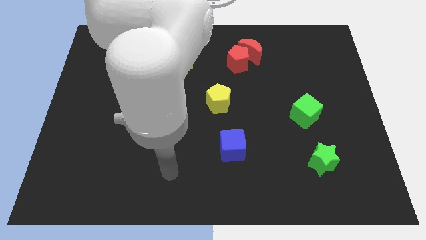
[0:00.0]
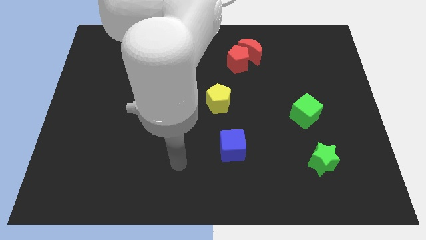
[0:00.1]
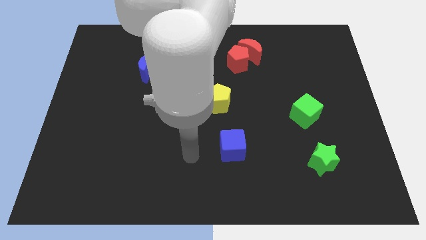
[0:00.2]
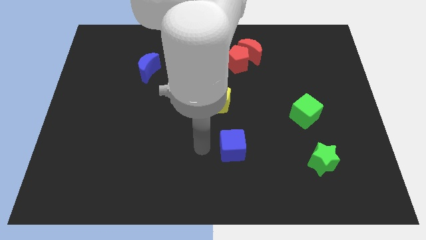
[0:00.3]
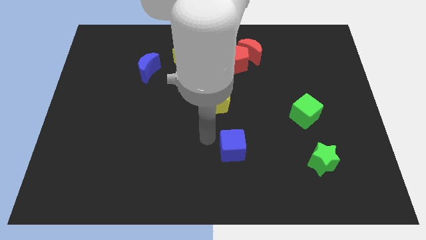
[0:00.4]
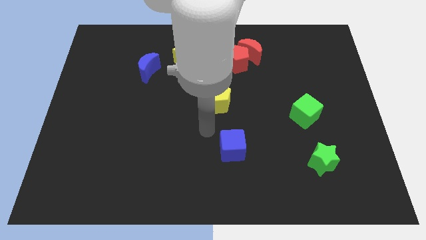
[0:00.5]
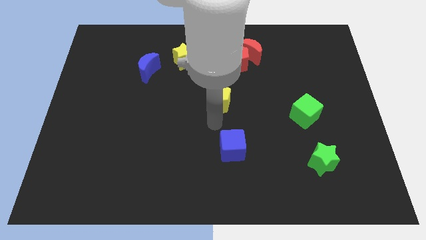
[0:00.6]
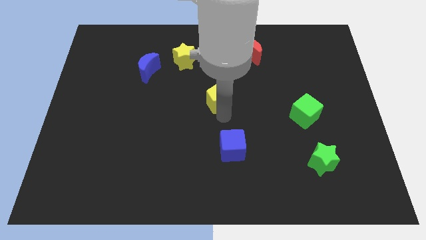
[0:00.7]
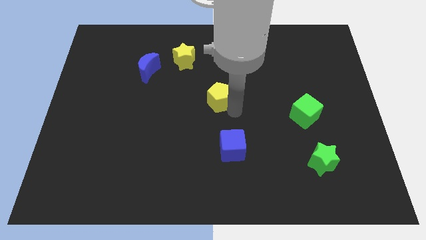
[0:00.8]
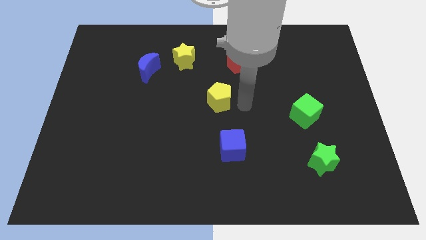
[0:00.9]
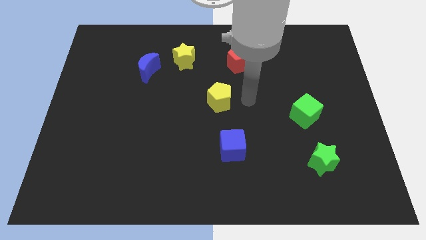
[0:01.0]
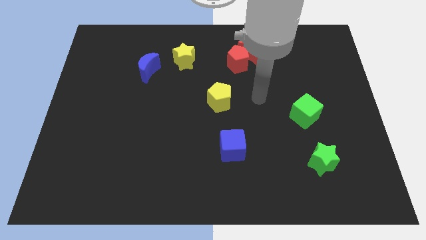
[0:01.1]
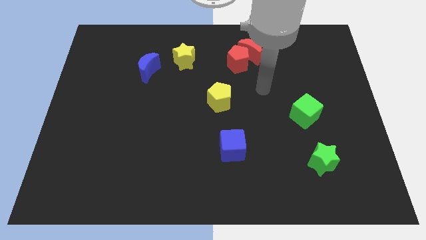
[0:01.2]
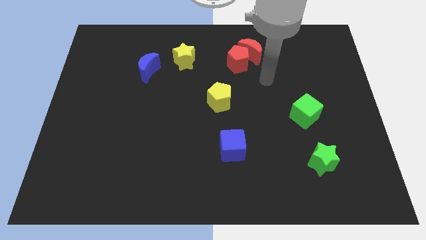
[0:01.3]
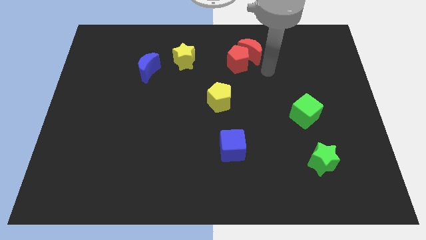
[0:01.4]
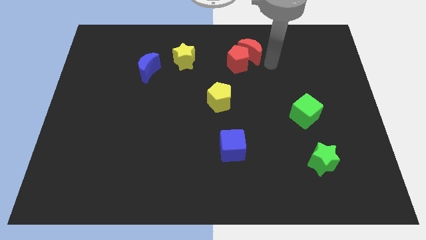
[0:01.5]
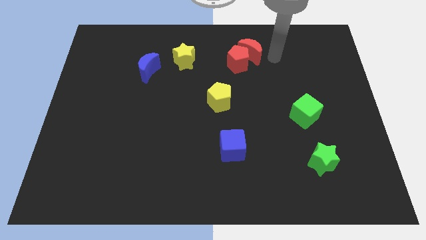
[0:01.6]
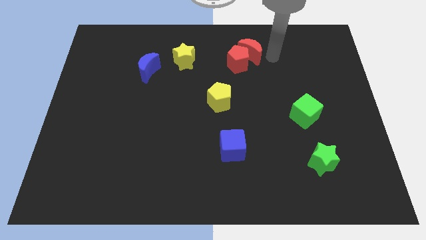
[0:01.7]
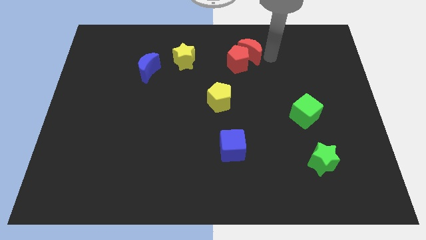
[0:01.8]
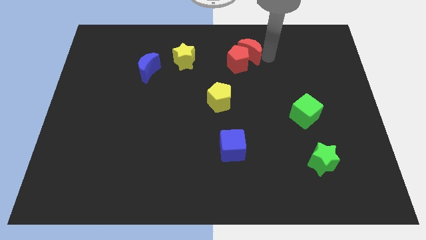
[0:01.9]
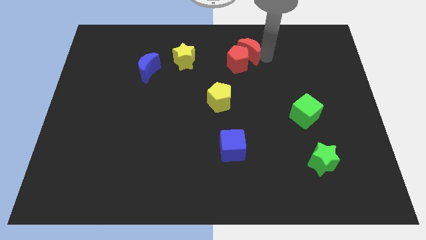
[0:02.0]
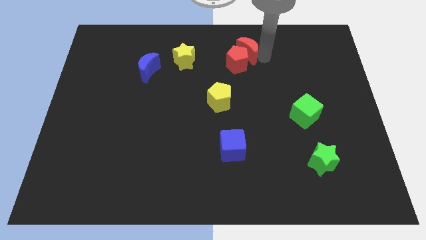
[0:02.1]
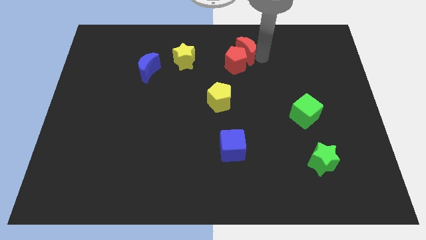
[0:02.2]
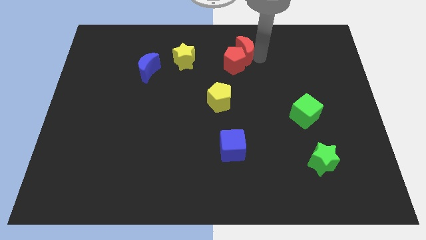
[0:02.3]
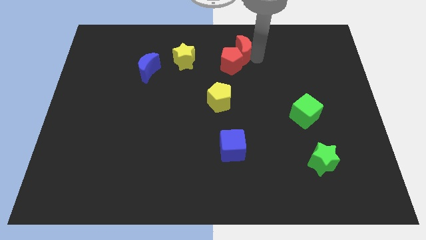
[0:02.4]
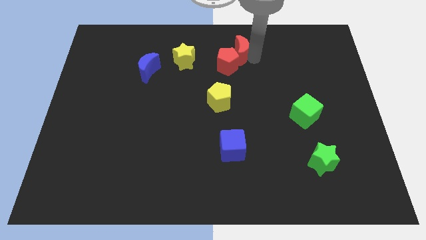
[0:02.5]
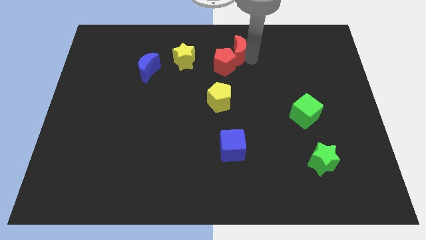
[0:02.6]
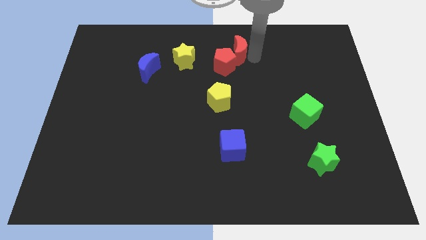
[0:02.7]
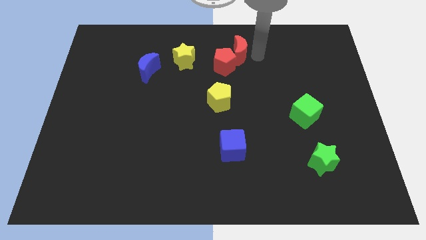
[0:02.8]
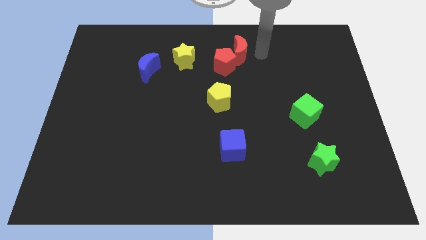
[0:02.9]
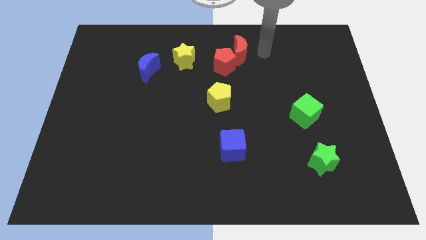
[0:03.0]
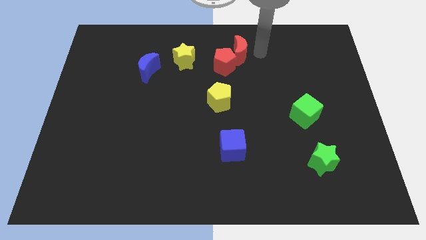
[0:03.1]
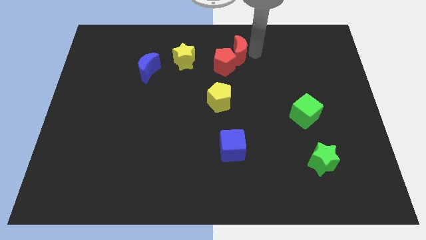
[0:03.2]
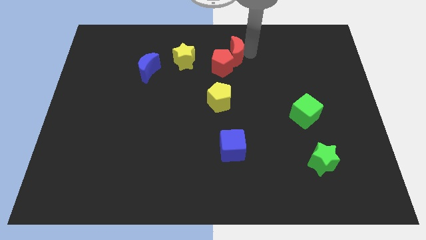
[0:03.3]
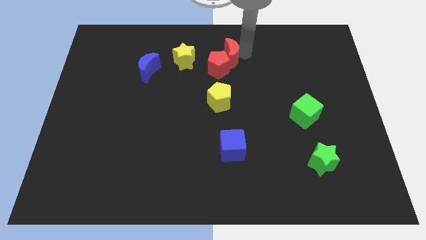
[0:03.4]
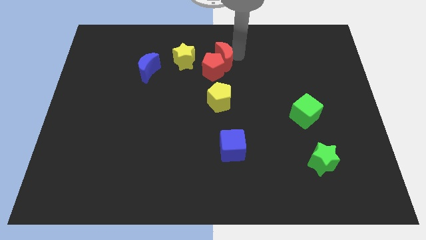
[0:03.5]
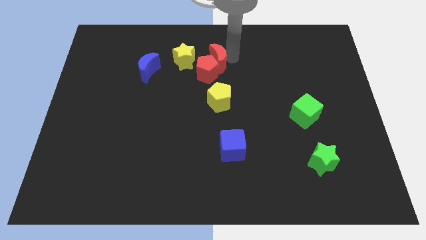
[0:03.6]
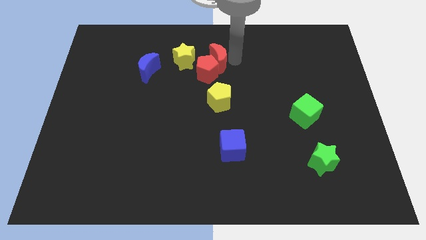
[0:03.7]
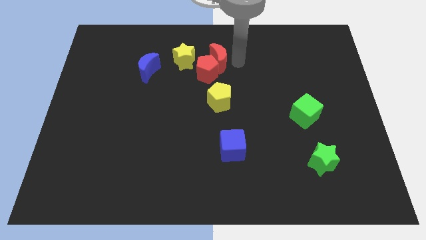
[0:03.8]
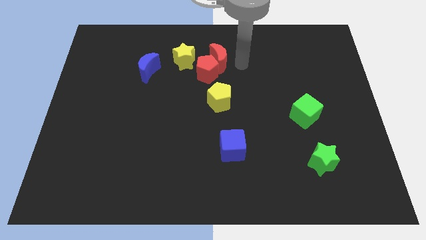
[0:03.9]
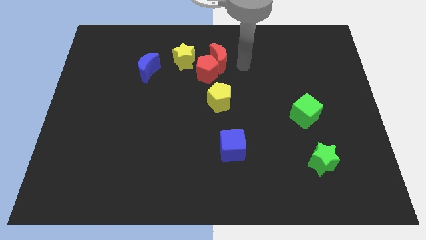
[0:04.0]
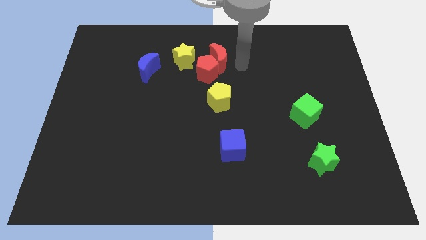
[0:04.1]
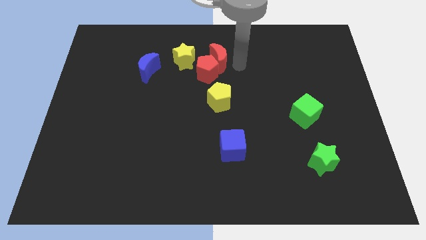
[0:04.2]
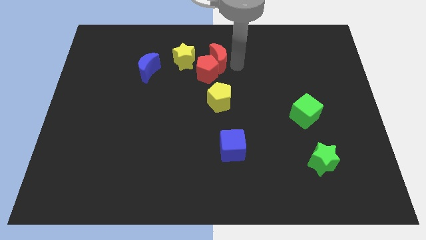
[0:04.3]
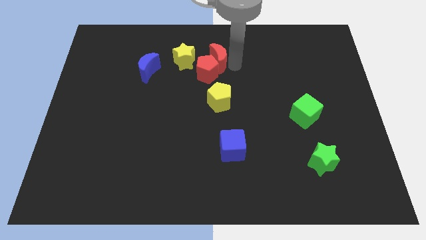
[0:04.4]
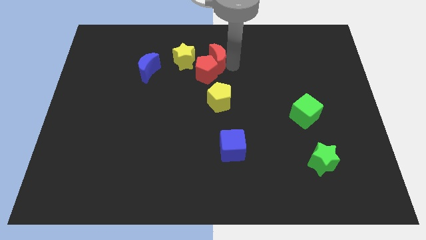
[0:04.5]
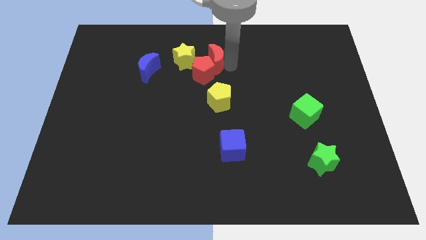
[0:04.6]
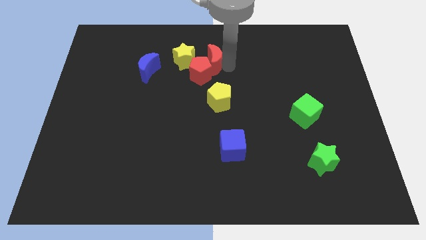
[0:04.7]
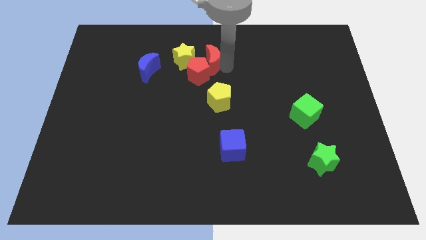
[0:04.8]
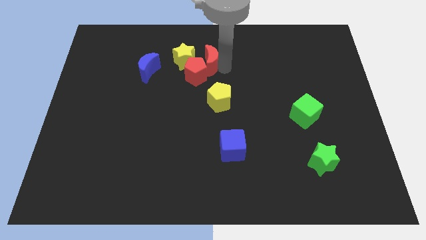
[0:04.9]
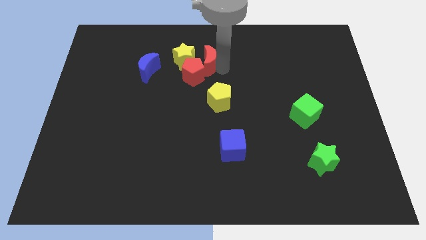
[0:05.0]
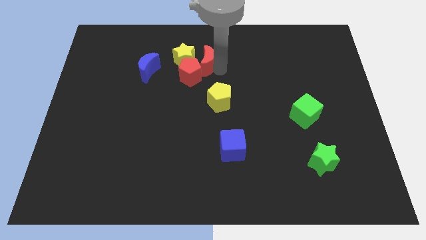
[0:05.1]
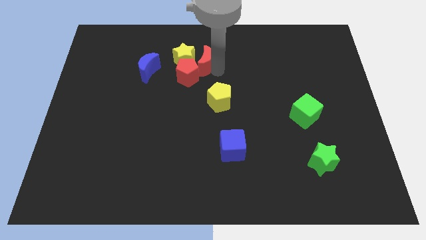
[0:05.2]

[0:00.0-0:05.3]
push the red moon towards the yellow star

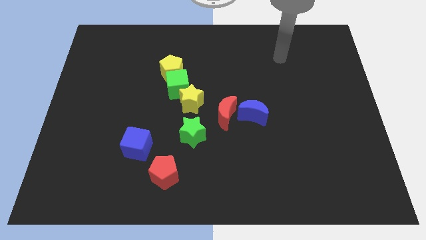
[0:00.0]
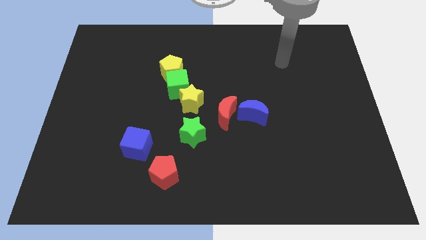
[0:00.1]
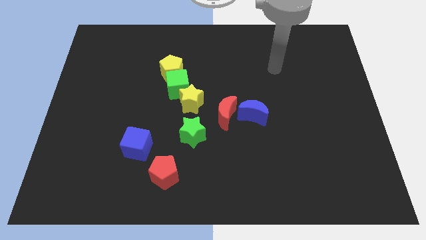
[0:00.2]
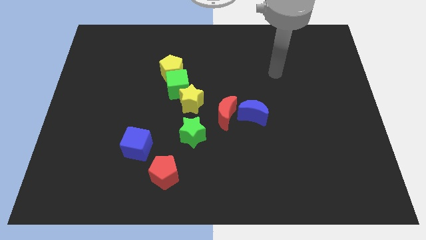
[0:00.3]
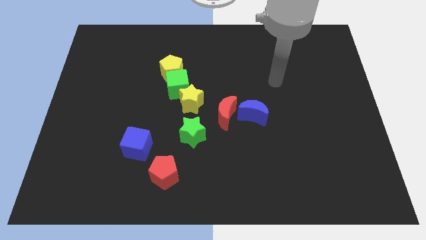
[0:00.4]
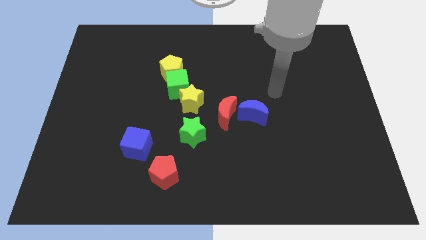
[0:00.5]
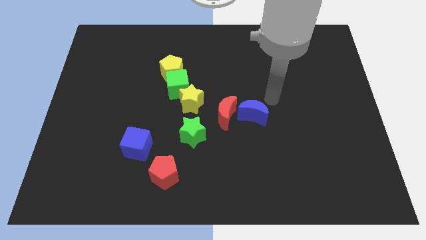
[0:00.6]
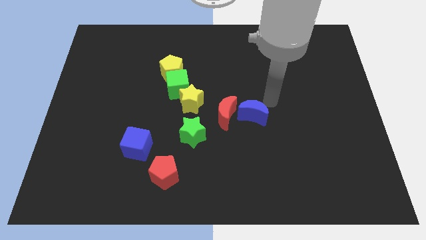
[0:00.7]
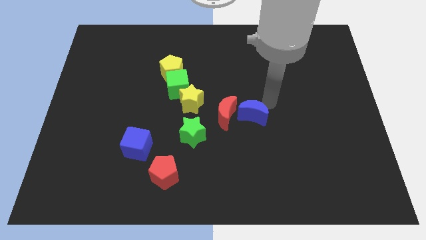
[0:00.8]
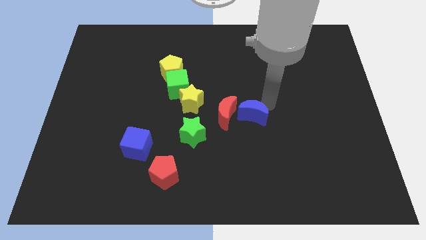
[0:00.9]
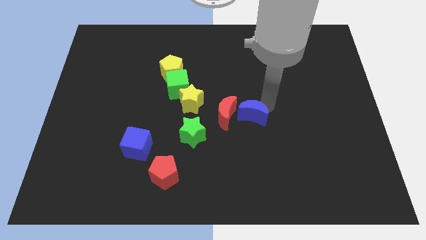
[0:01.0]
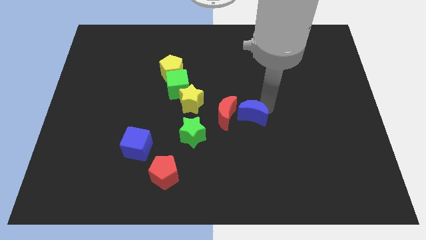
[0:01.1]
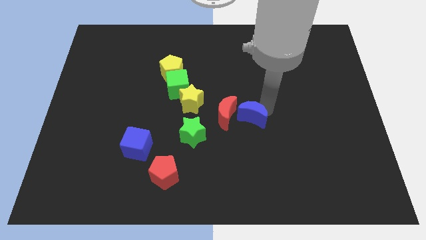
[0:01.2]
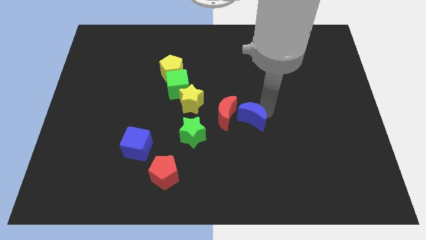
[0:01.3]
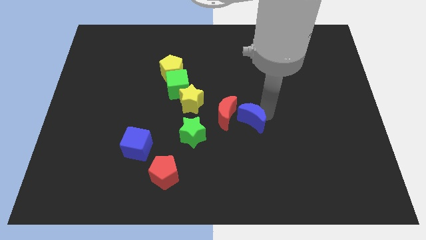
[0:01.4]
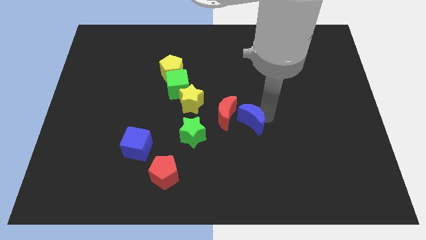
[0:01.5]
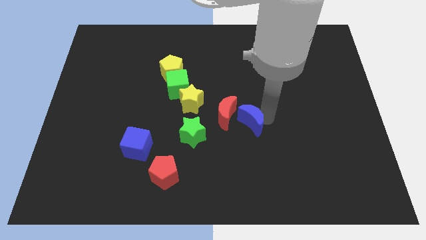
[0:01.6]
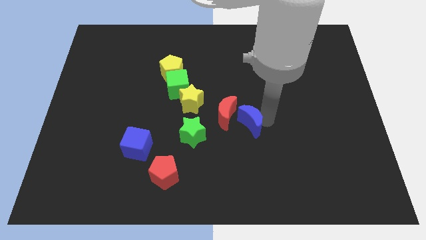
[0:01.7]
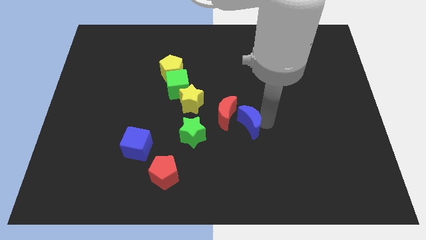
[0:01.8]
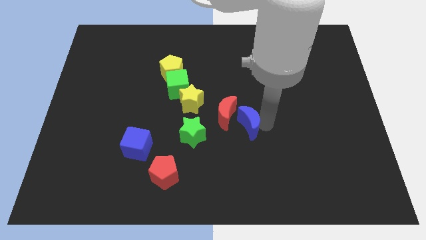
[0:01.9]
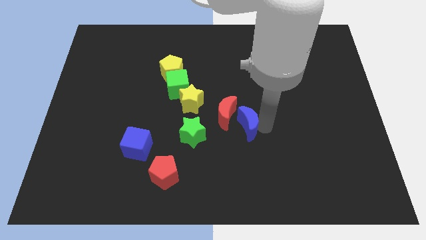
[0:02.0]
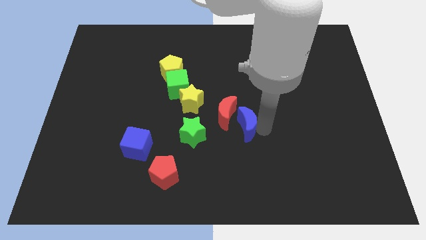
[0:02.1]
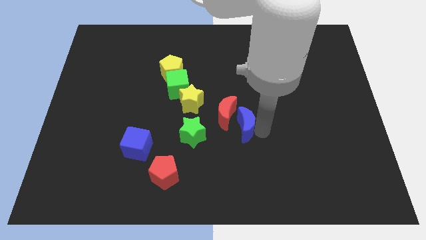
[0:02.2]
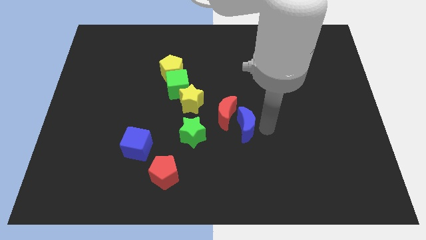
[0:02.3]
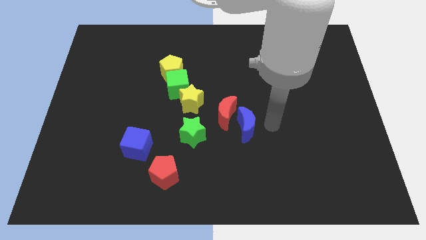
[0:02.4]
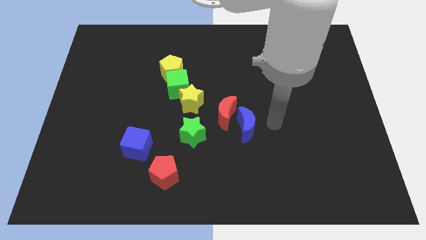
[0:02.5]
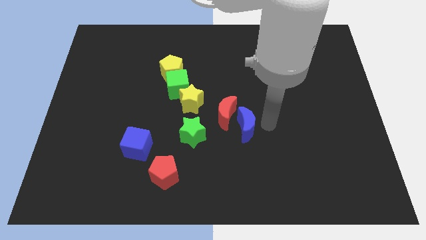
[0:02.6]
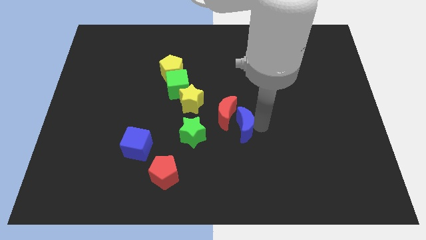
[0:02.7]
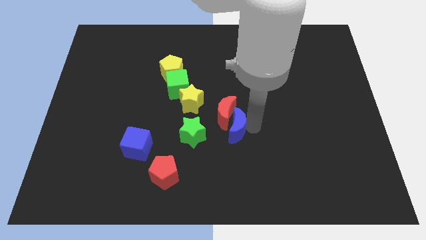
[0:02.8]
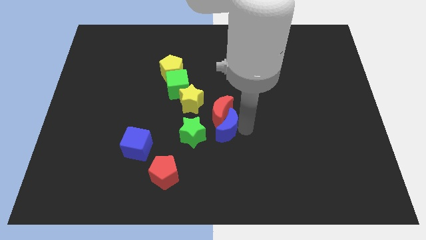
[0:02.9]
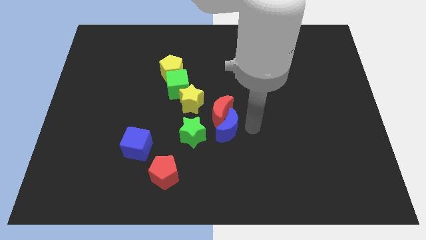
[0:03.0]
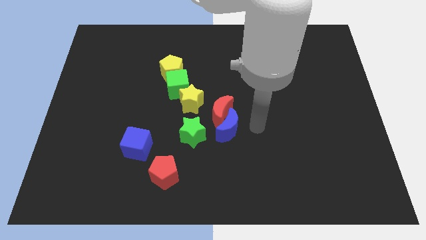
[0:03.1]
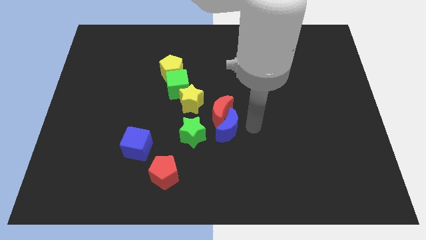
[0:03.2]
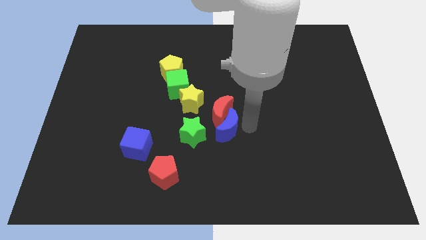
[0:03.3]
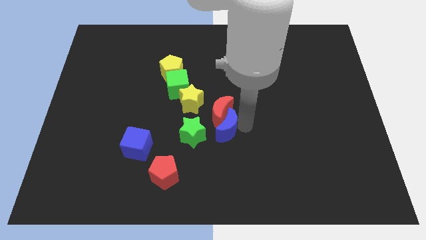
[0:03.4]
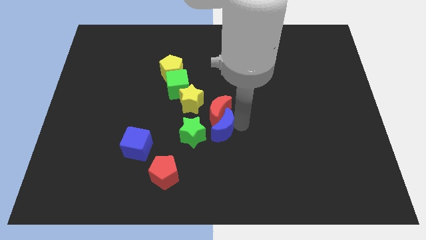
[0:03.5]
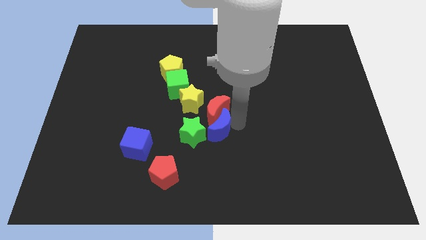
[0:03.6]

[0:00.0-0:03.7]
slide the blue moon close to the green star
